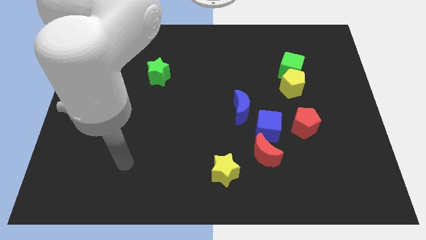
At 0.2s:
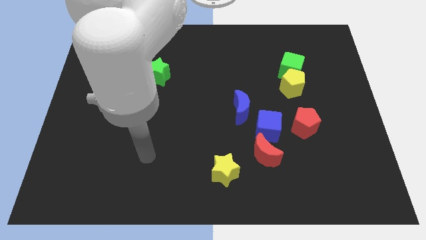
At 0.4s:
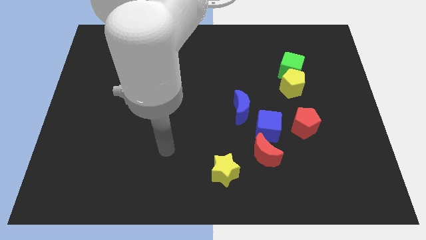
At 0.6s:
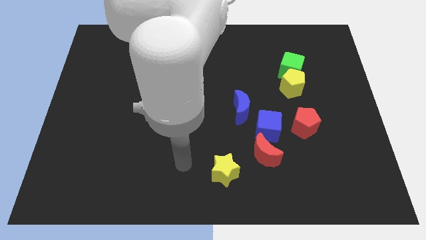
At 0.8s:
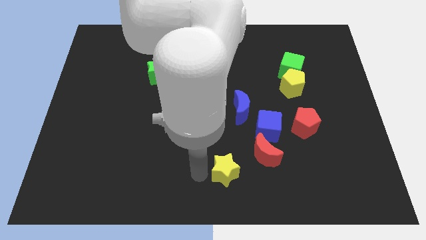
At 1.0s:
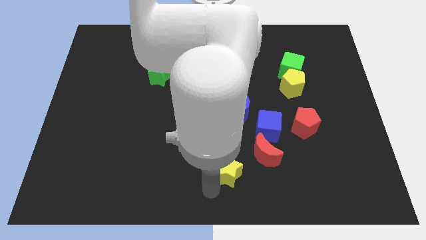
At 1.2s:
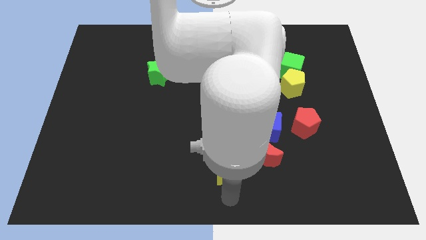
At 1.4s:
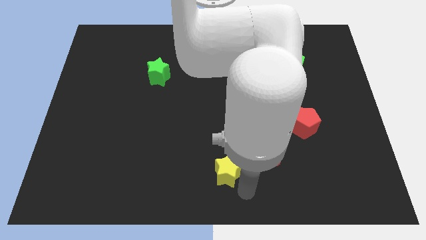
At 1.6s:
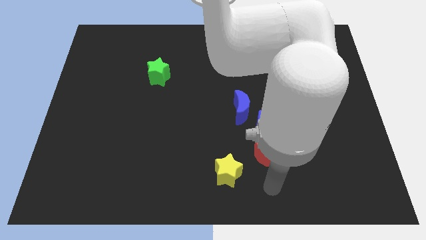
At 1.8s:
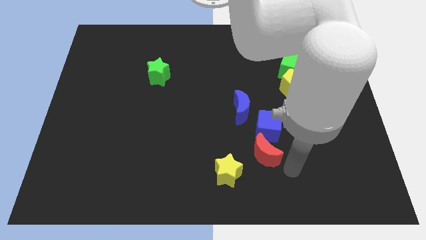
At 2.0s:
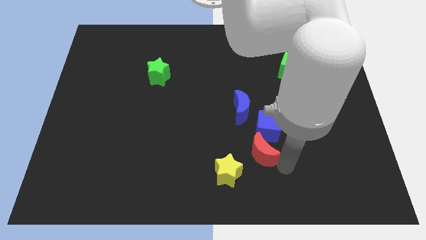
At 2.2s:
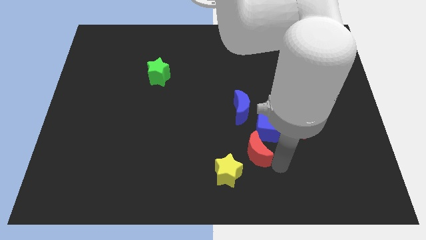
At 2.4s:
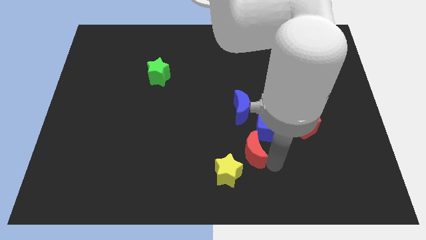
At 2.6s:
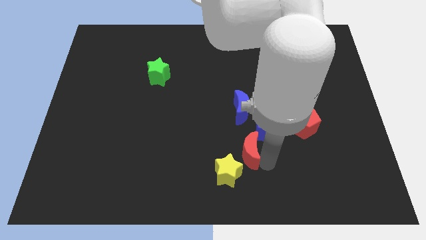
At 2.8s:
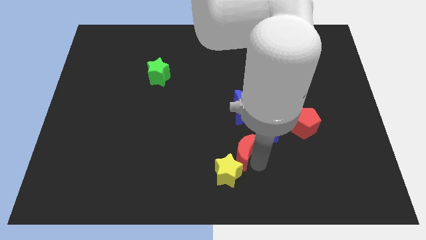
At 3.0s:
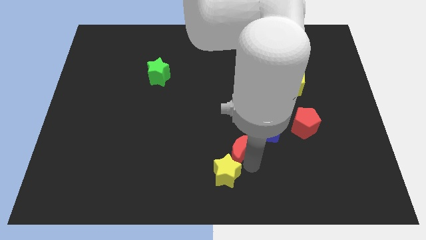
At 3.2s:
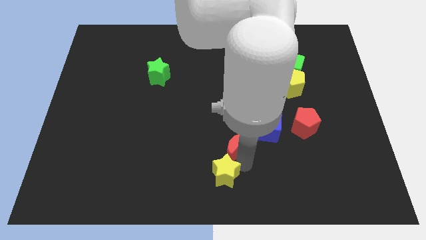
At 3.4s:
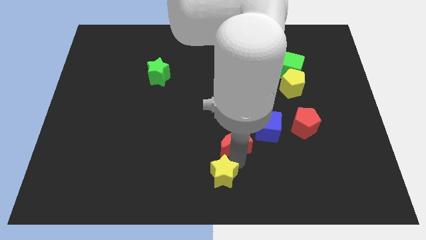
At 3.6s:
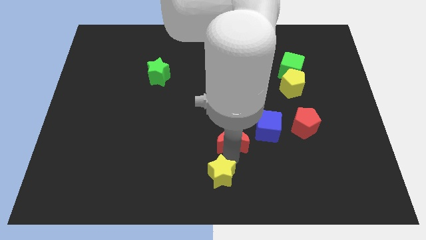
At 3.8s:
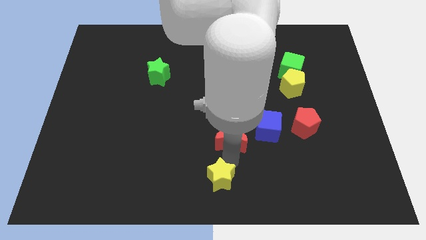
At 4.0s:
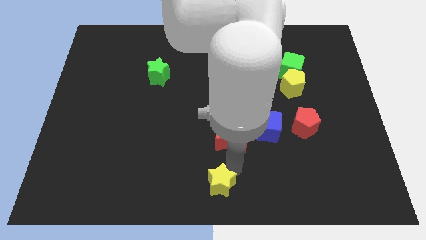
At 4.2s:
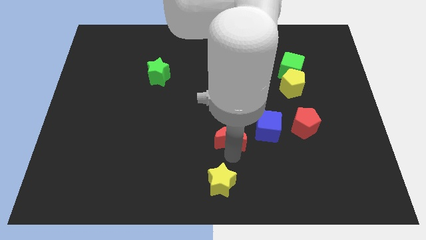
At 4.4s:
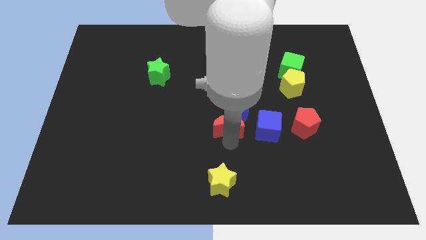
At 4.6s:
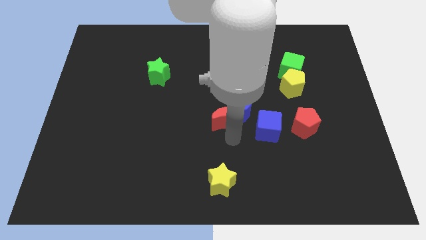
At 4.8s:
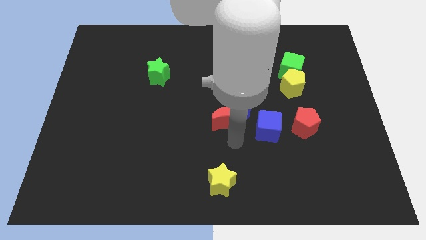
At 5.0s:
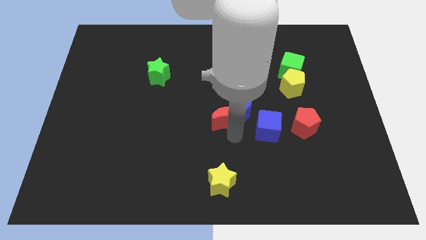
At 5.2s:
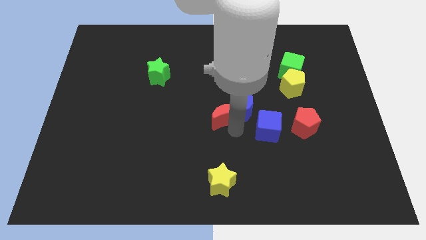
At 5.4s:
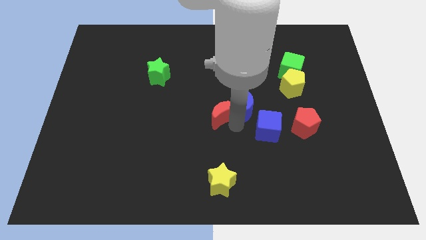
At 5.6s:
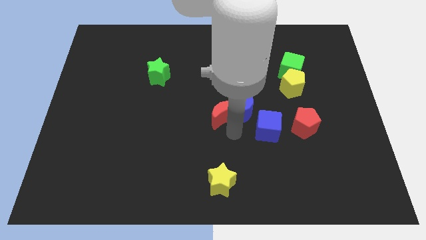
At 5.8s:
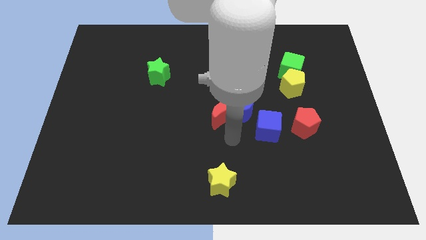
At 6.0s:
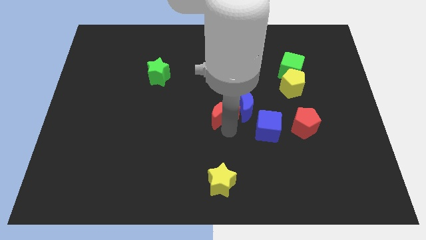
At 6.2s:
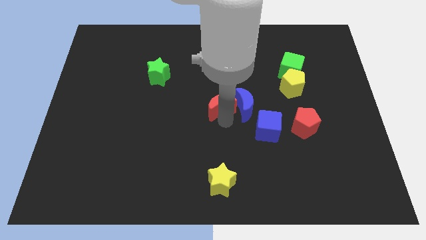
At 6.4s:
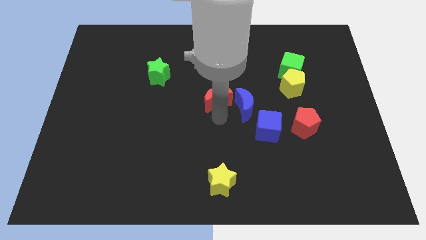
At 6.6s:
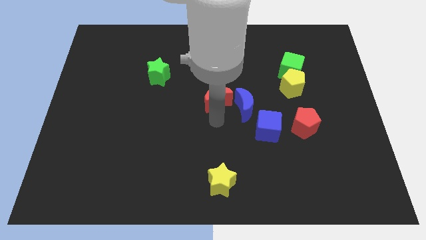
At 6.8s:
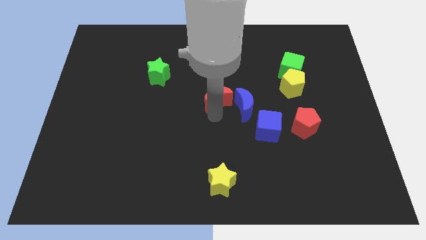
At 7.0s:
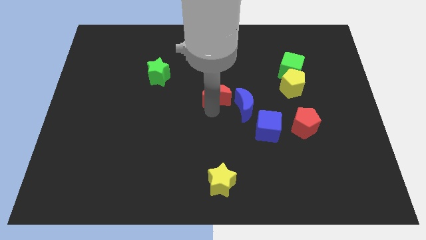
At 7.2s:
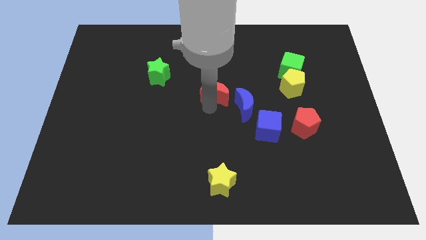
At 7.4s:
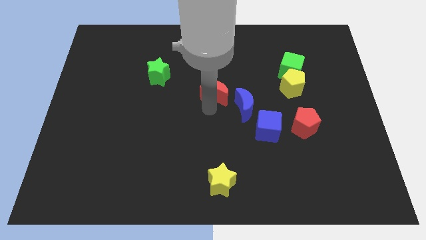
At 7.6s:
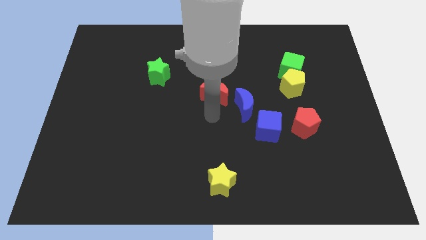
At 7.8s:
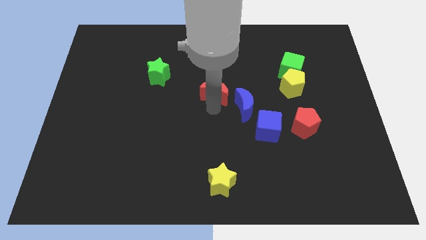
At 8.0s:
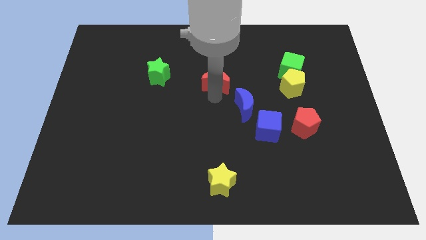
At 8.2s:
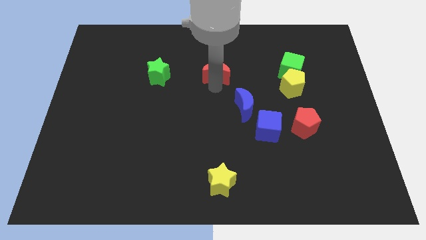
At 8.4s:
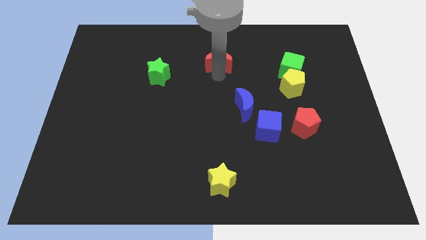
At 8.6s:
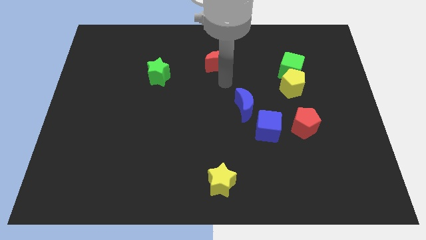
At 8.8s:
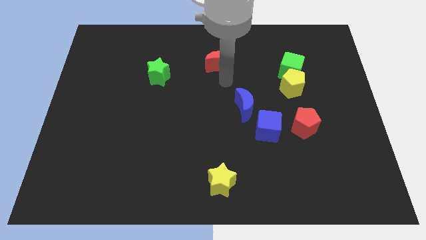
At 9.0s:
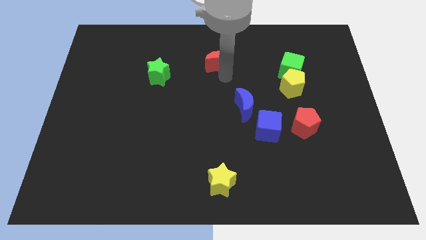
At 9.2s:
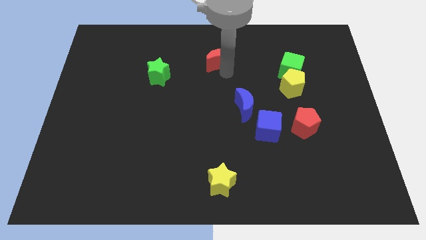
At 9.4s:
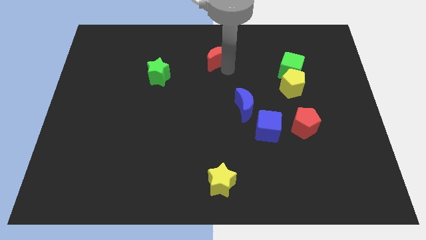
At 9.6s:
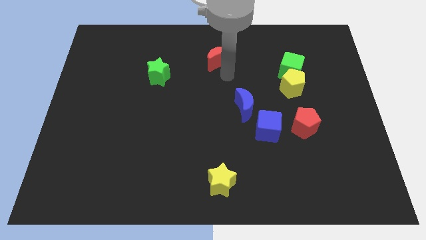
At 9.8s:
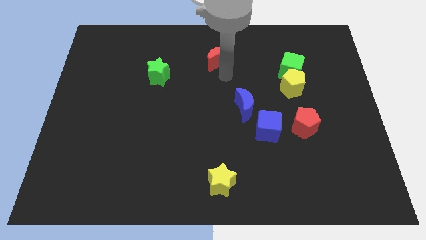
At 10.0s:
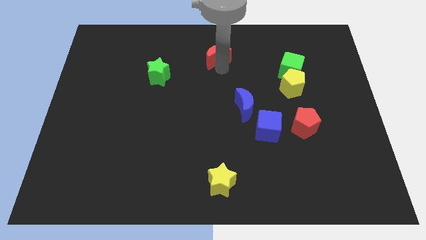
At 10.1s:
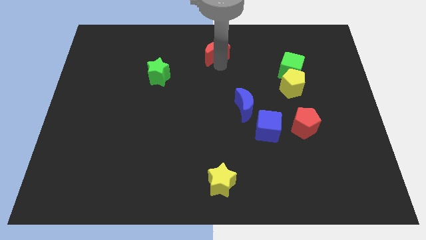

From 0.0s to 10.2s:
put the red moon to the top

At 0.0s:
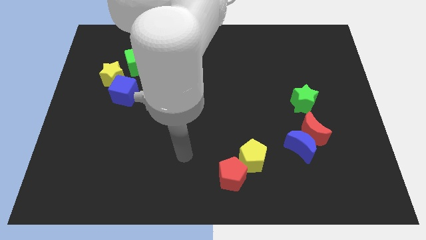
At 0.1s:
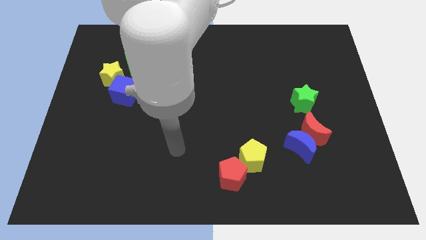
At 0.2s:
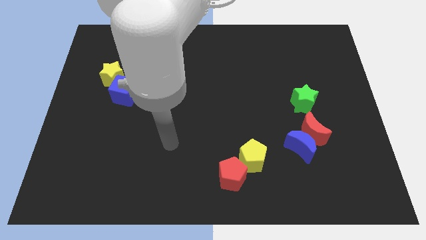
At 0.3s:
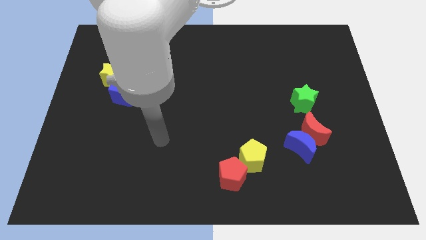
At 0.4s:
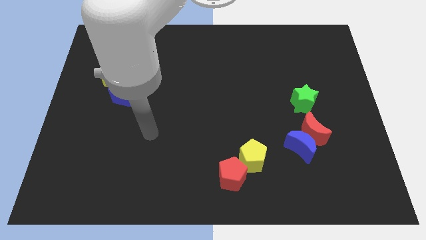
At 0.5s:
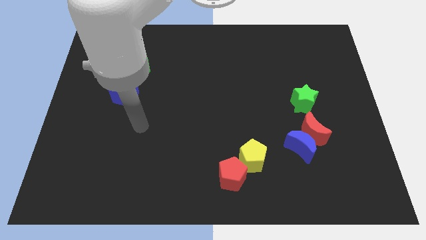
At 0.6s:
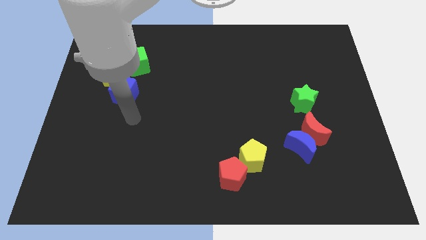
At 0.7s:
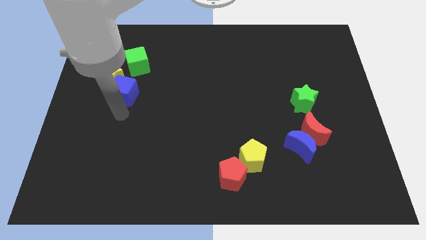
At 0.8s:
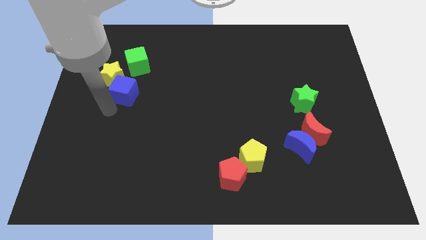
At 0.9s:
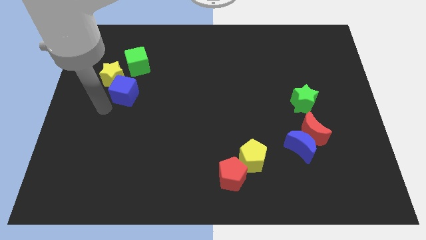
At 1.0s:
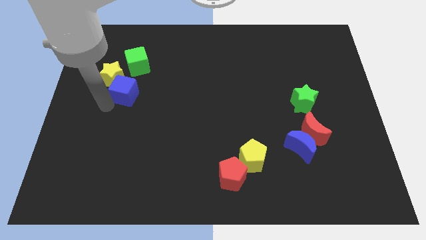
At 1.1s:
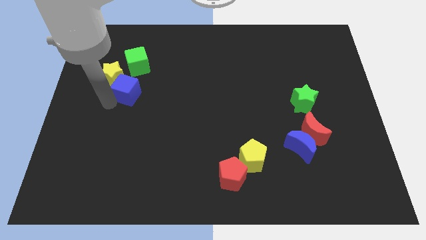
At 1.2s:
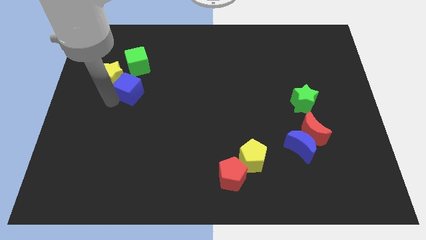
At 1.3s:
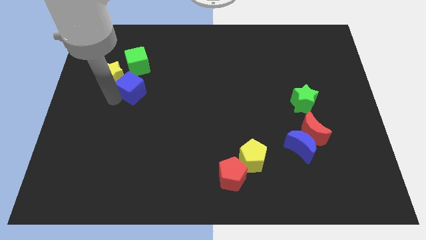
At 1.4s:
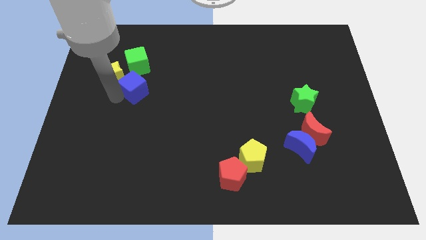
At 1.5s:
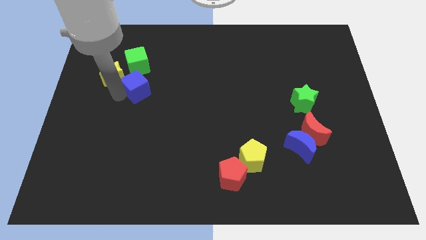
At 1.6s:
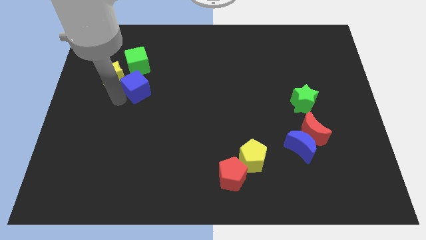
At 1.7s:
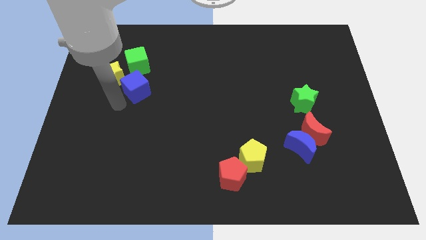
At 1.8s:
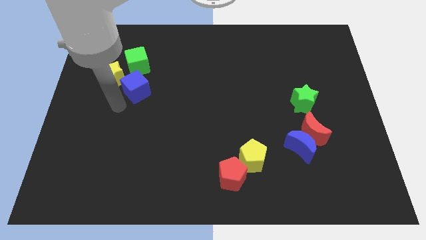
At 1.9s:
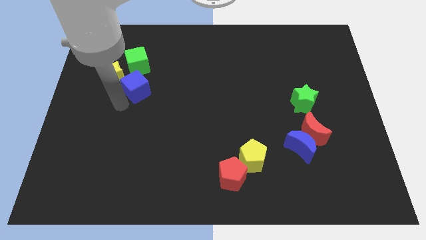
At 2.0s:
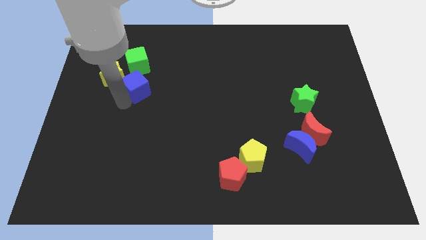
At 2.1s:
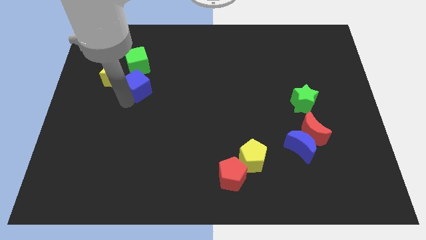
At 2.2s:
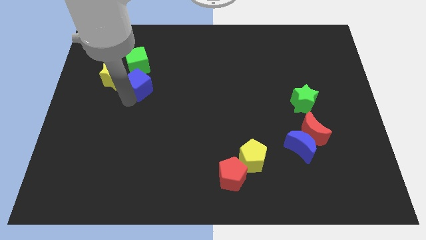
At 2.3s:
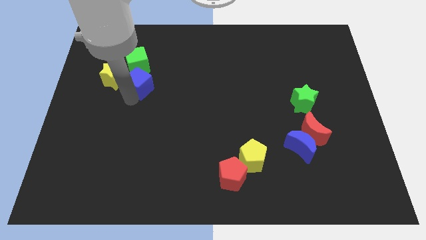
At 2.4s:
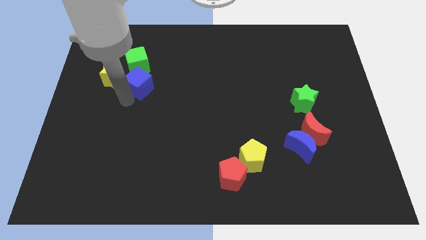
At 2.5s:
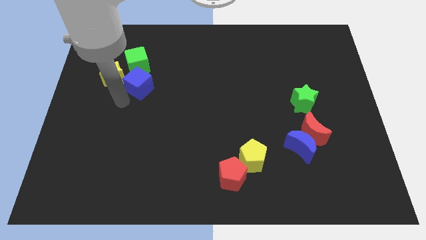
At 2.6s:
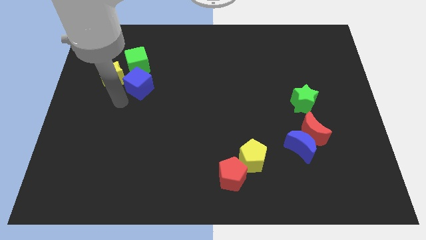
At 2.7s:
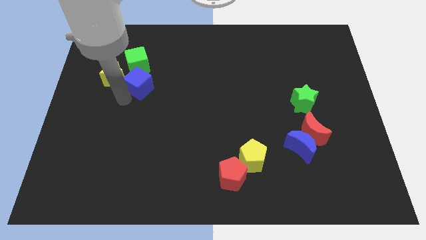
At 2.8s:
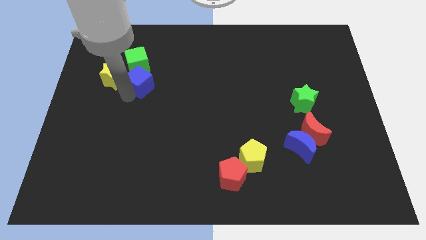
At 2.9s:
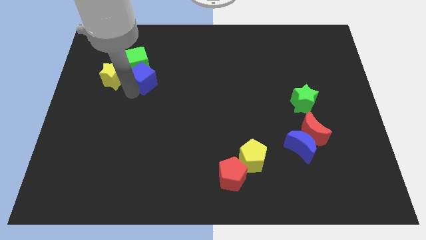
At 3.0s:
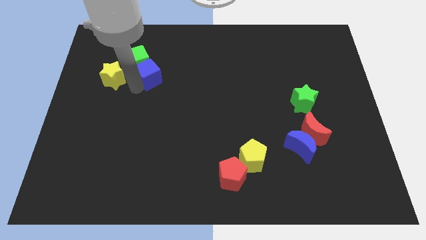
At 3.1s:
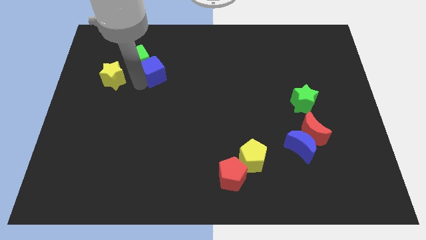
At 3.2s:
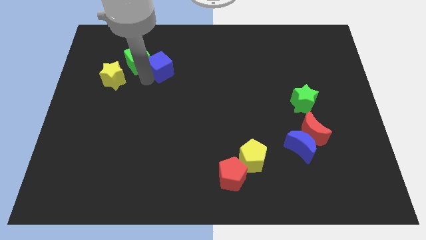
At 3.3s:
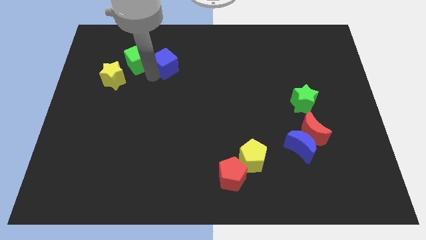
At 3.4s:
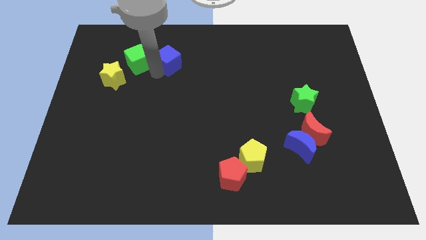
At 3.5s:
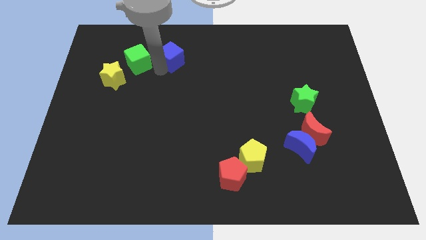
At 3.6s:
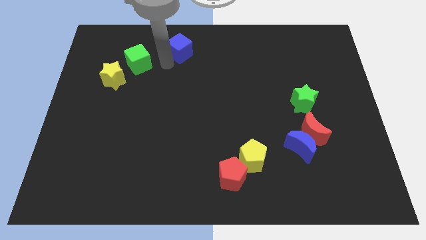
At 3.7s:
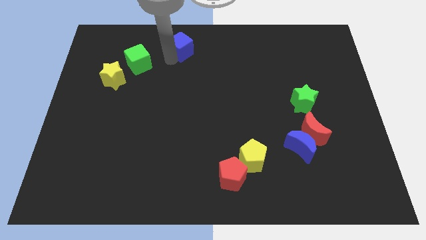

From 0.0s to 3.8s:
slide the blue cube to the top side
